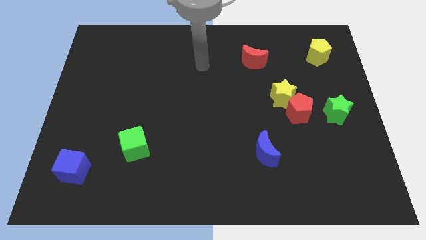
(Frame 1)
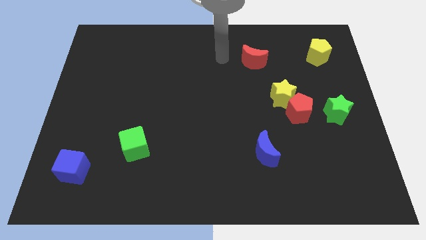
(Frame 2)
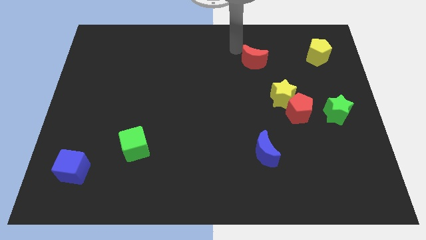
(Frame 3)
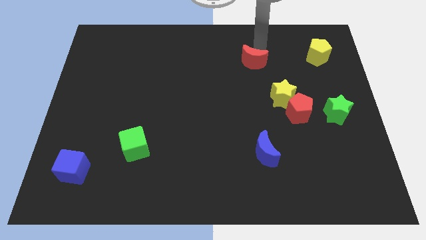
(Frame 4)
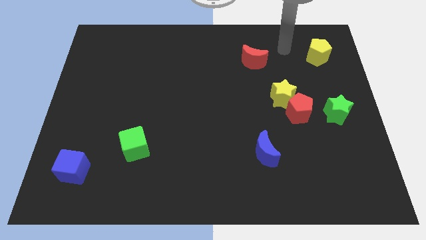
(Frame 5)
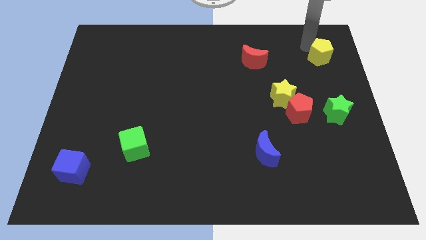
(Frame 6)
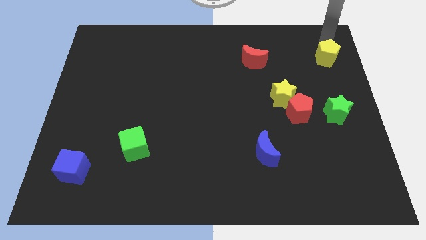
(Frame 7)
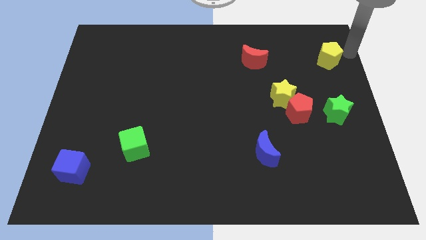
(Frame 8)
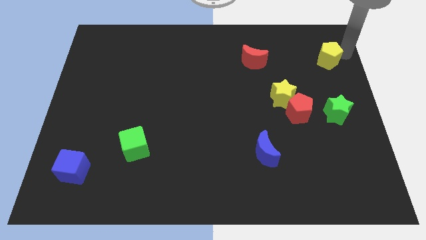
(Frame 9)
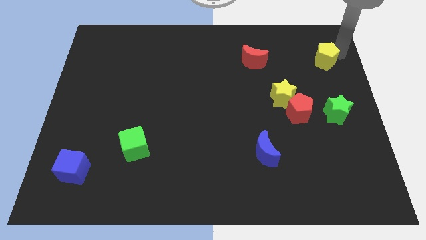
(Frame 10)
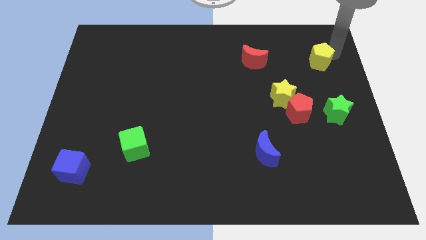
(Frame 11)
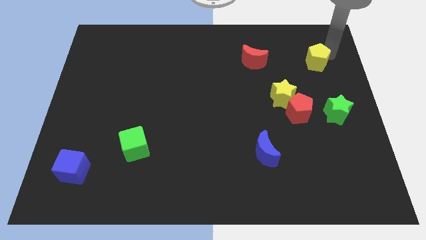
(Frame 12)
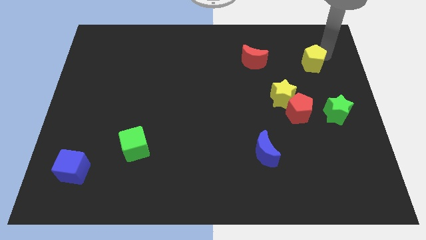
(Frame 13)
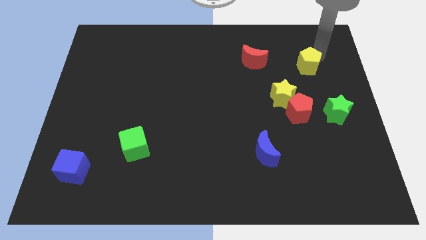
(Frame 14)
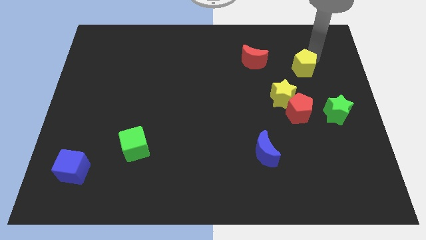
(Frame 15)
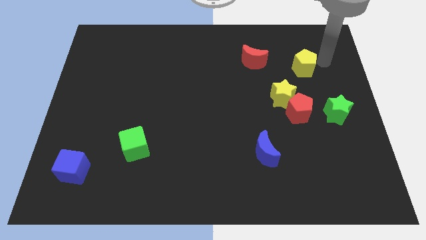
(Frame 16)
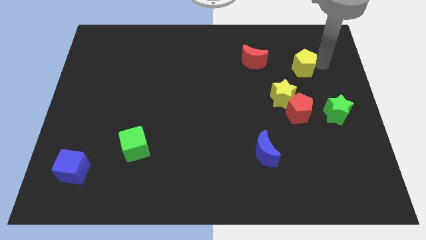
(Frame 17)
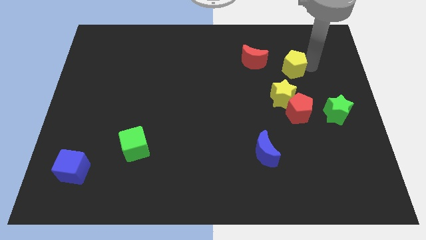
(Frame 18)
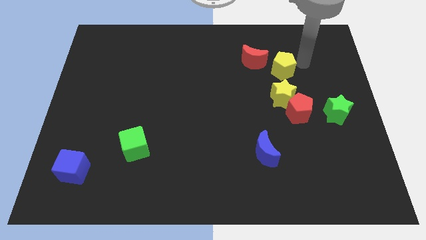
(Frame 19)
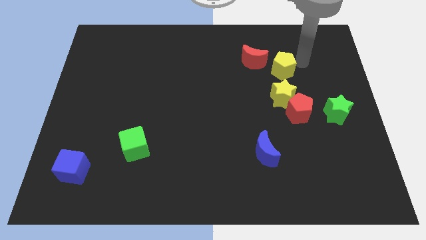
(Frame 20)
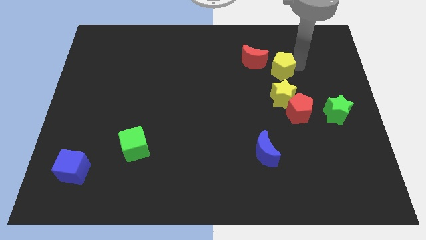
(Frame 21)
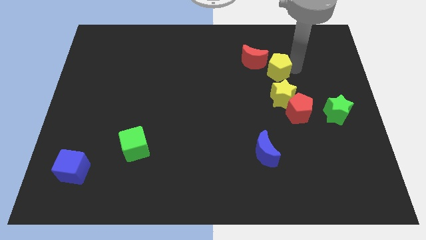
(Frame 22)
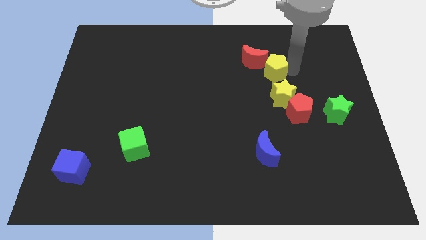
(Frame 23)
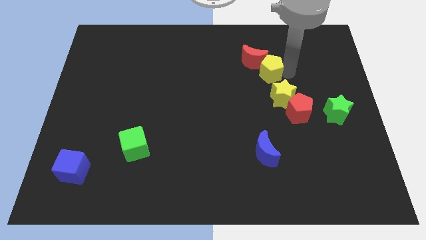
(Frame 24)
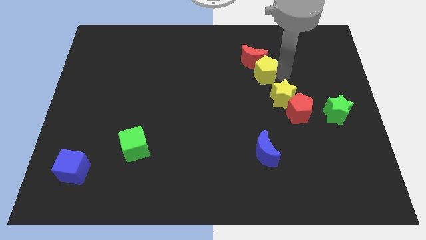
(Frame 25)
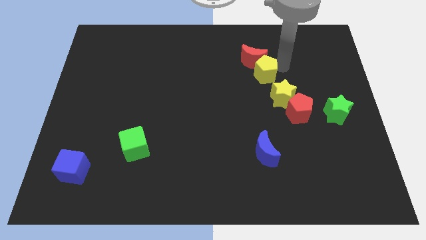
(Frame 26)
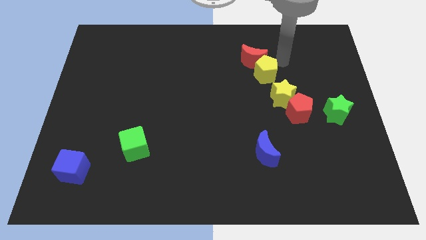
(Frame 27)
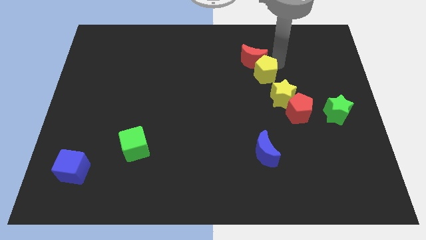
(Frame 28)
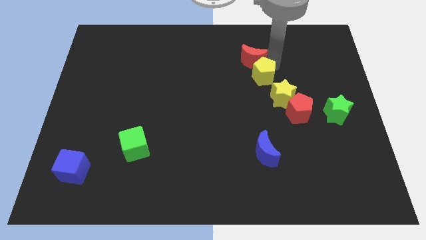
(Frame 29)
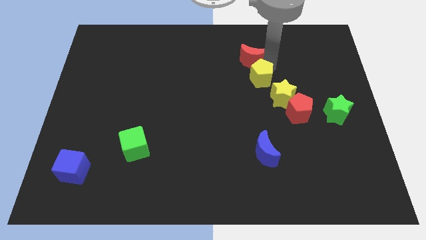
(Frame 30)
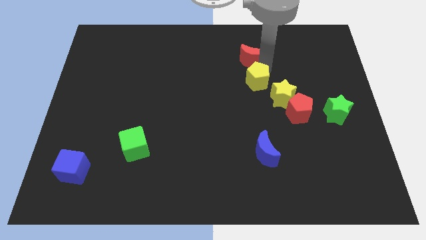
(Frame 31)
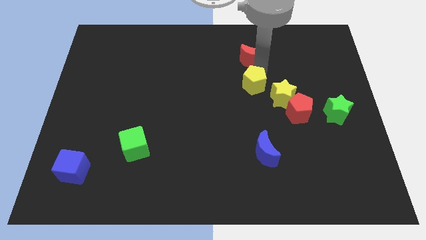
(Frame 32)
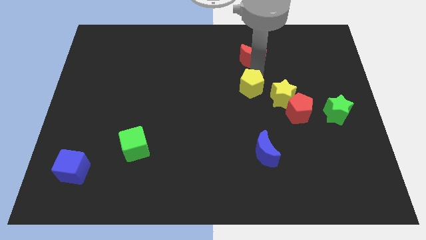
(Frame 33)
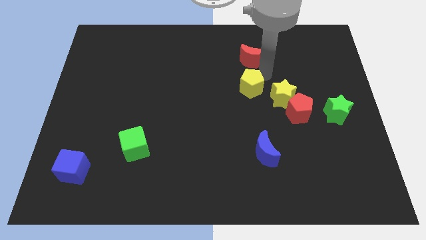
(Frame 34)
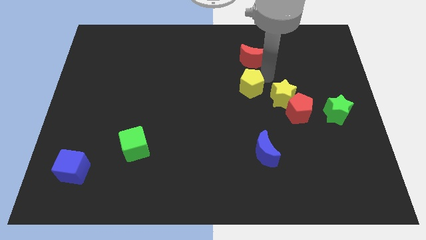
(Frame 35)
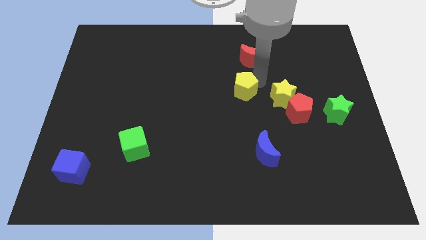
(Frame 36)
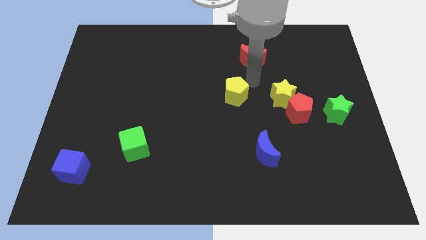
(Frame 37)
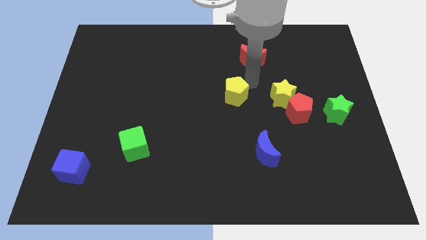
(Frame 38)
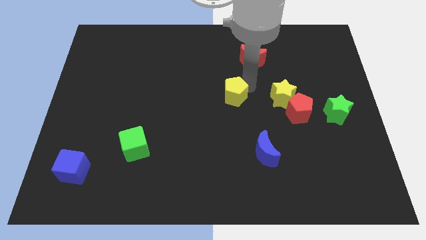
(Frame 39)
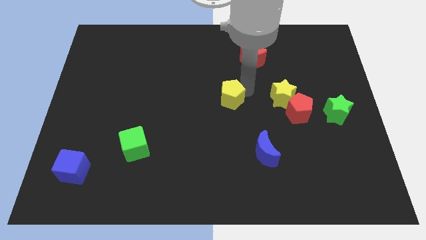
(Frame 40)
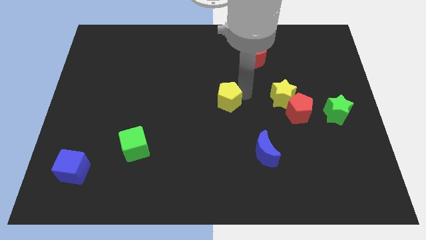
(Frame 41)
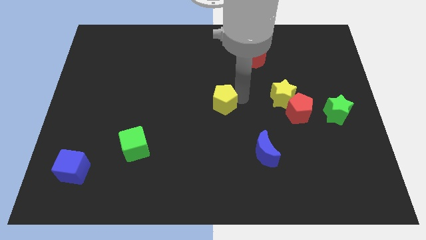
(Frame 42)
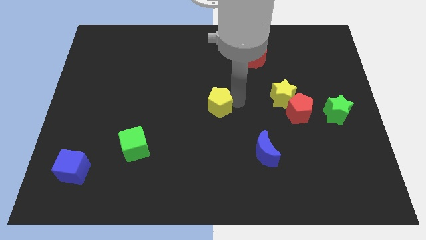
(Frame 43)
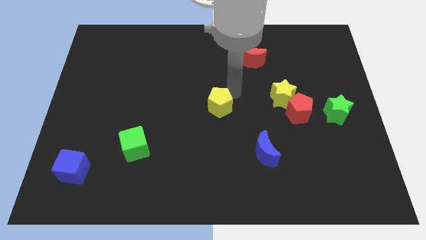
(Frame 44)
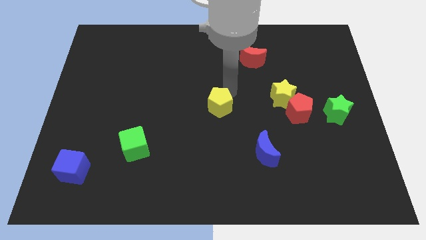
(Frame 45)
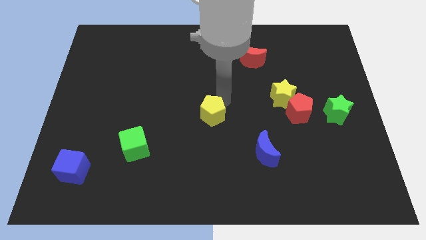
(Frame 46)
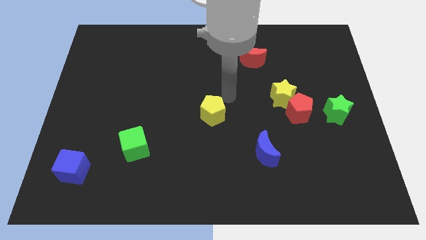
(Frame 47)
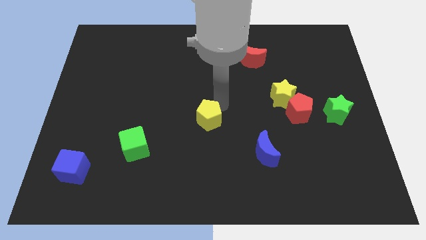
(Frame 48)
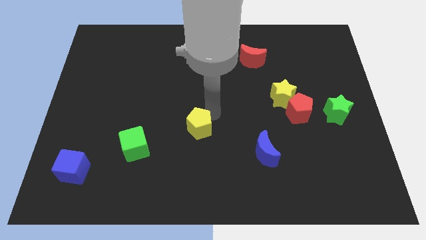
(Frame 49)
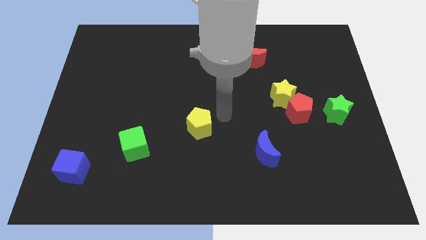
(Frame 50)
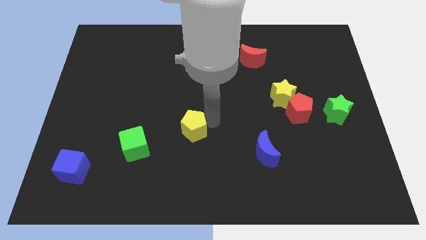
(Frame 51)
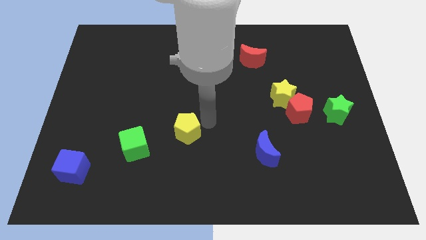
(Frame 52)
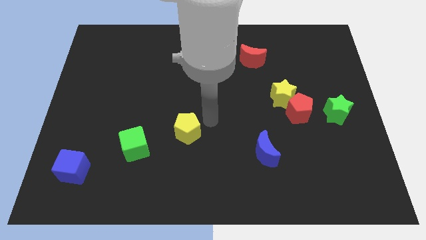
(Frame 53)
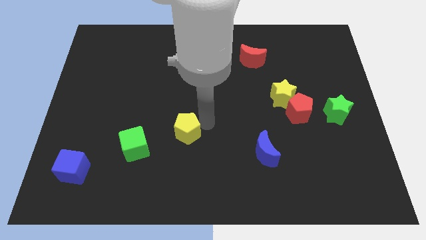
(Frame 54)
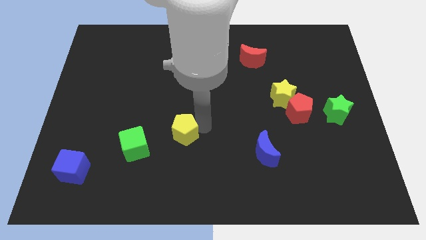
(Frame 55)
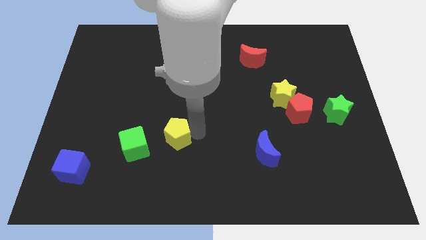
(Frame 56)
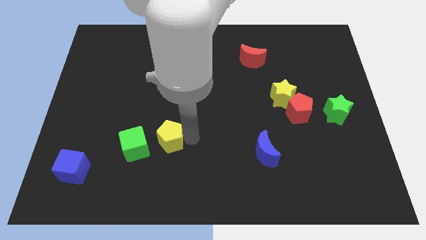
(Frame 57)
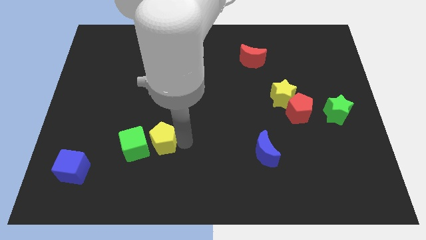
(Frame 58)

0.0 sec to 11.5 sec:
slide the yellow pentagon towards the green cube

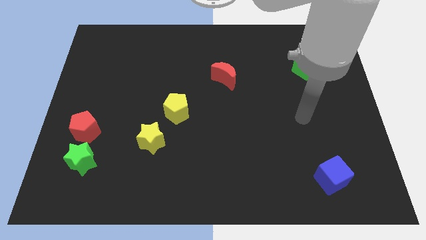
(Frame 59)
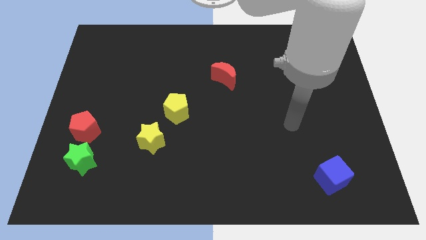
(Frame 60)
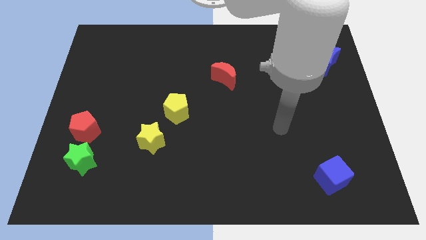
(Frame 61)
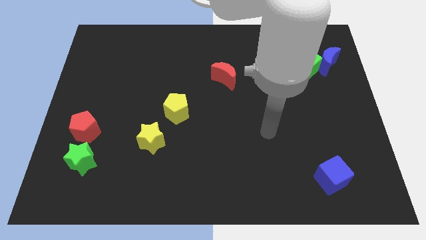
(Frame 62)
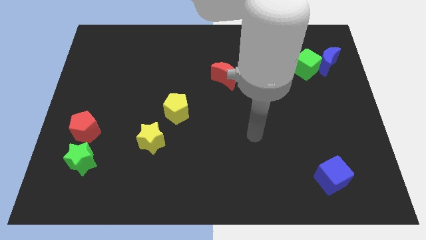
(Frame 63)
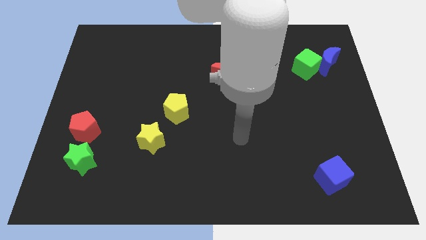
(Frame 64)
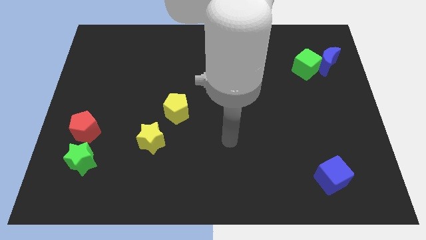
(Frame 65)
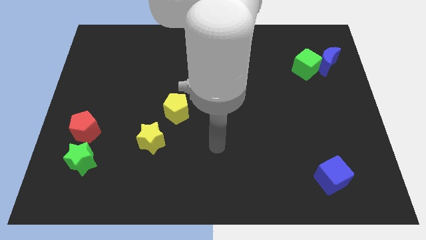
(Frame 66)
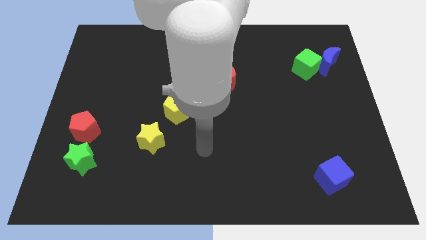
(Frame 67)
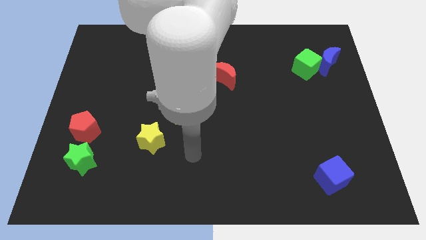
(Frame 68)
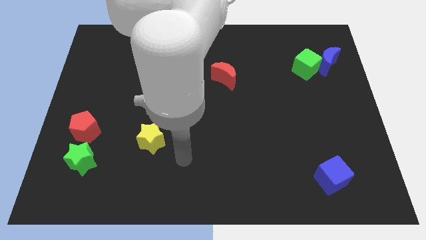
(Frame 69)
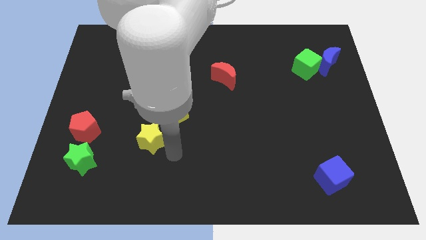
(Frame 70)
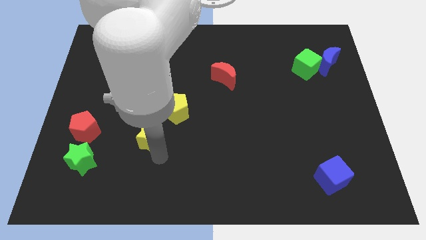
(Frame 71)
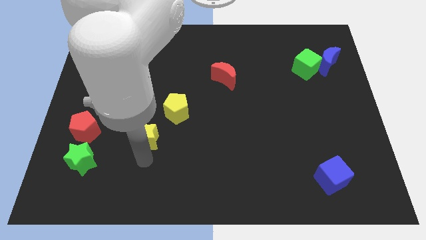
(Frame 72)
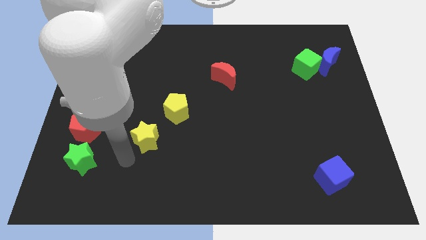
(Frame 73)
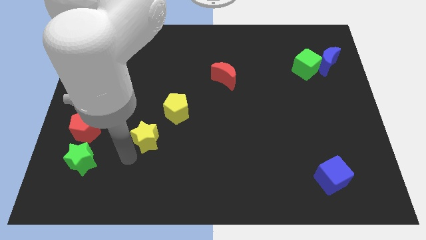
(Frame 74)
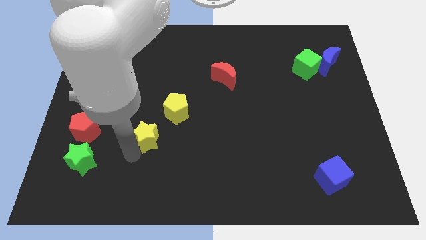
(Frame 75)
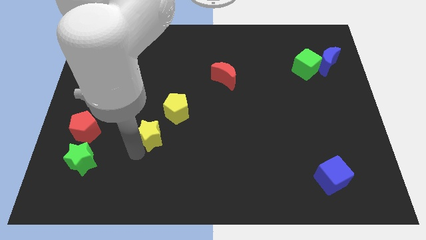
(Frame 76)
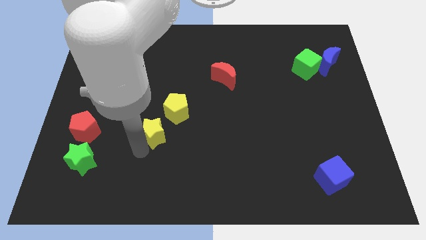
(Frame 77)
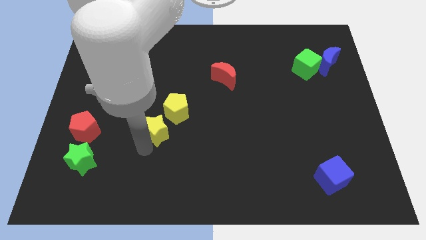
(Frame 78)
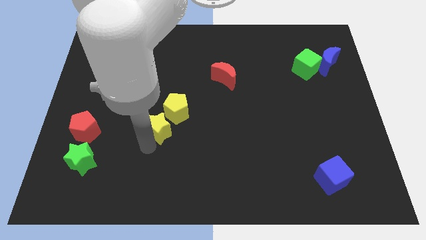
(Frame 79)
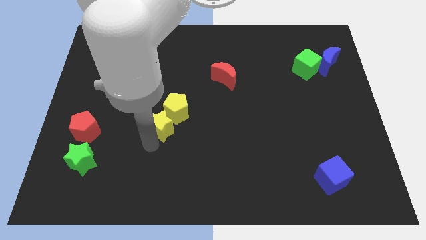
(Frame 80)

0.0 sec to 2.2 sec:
move the yellow star close to the yellow pentagon
